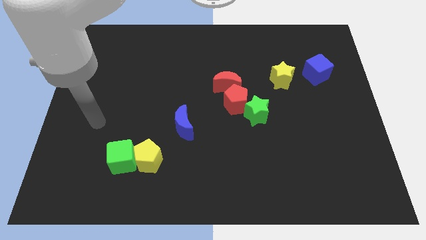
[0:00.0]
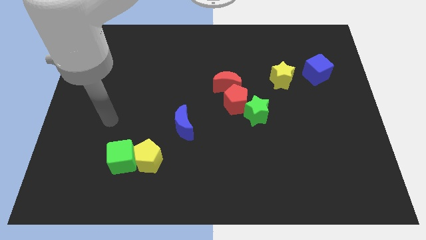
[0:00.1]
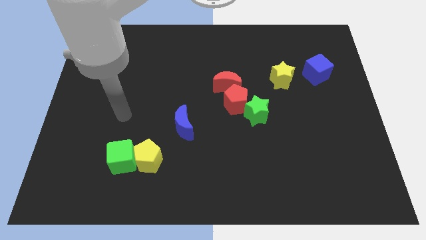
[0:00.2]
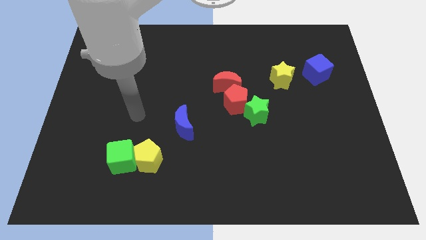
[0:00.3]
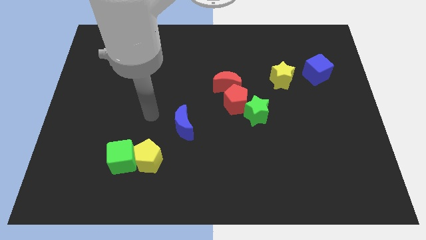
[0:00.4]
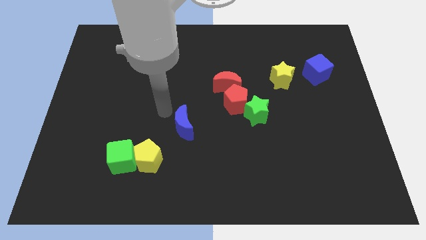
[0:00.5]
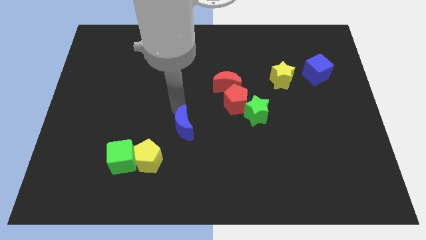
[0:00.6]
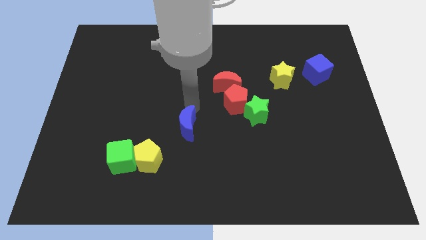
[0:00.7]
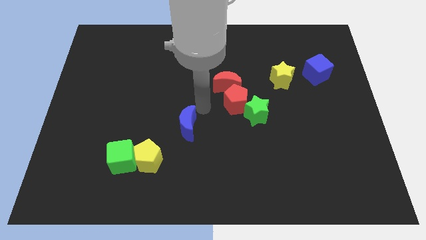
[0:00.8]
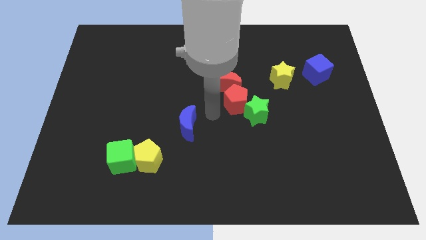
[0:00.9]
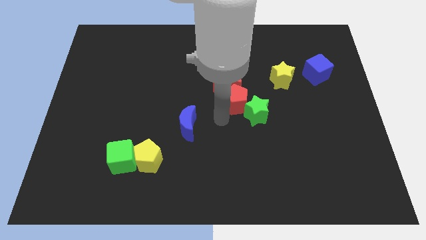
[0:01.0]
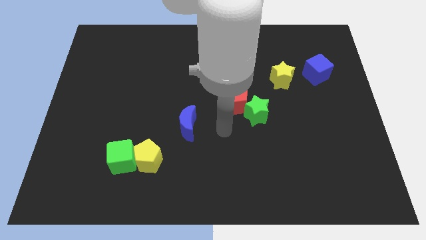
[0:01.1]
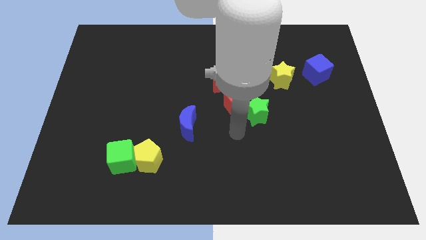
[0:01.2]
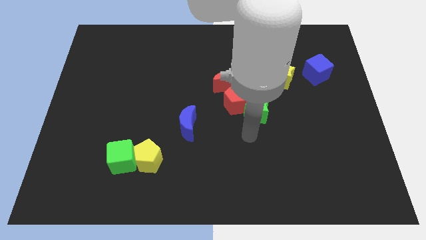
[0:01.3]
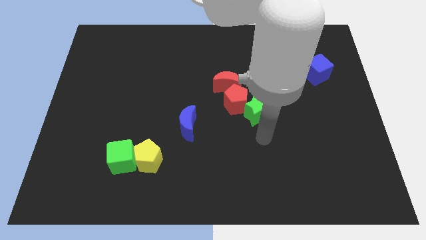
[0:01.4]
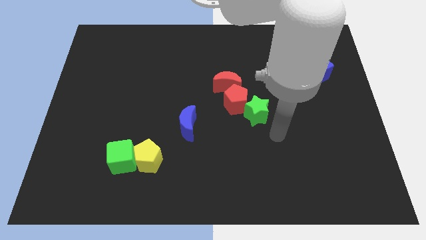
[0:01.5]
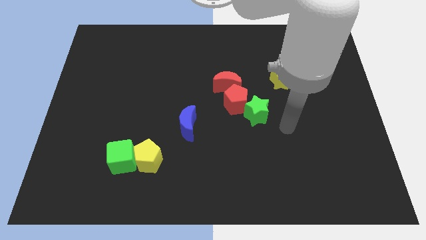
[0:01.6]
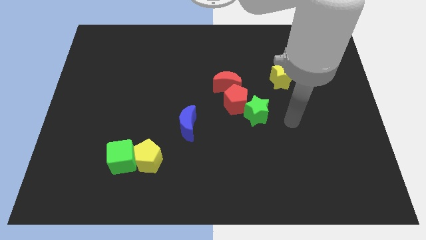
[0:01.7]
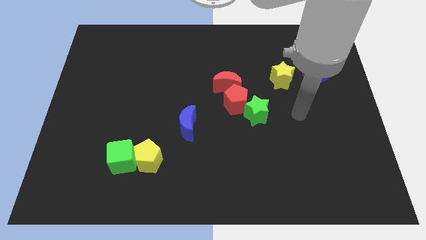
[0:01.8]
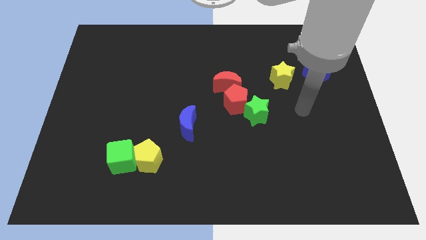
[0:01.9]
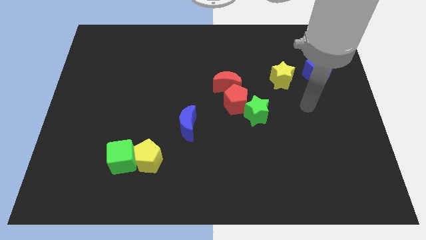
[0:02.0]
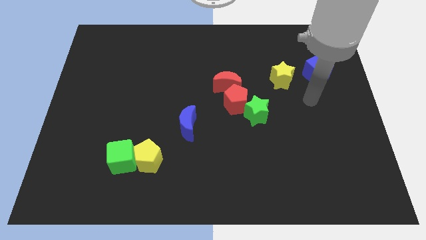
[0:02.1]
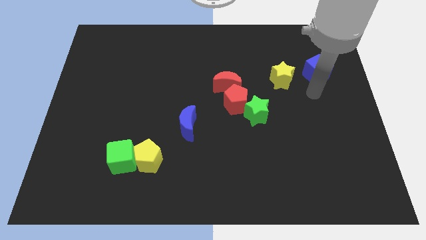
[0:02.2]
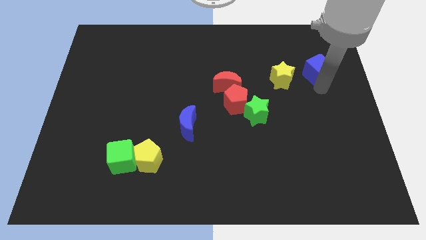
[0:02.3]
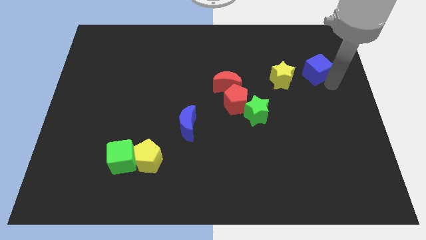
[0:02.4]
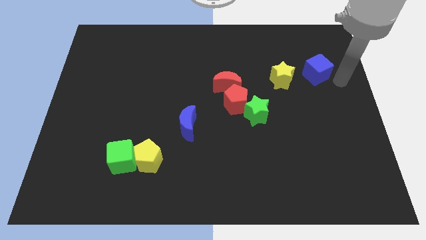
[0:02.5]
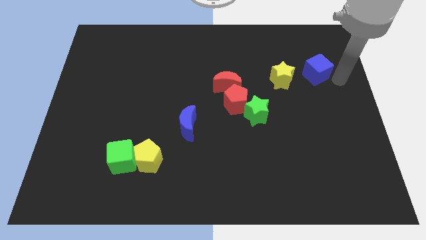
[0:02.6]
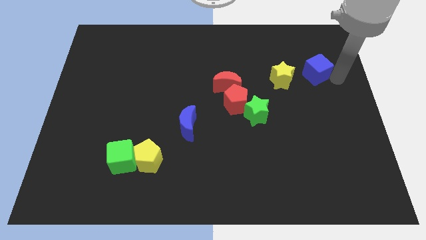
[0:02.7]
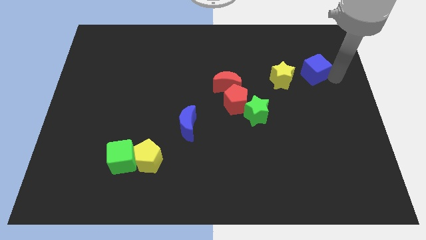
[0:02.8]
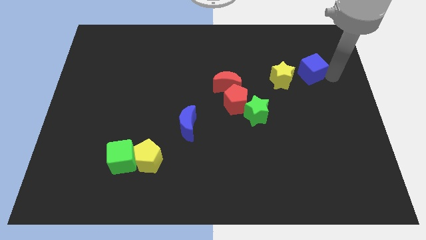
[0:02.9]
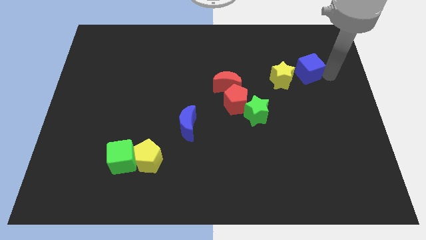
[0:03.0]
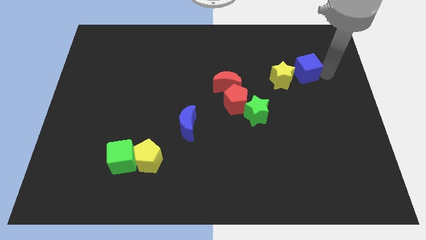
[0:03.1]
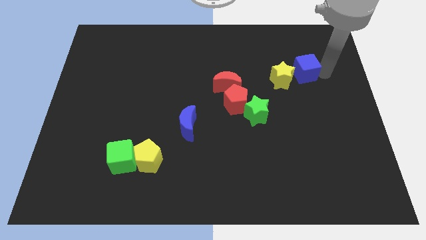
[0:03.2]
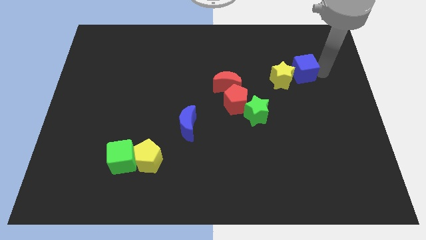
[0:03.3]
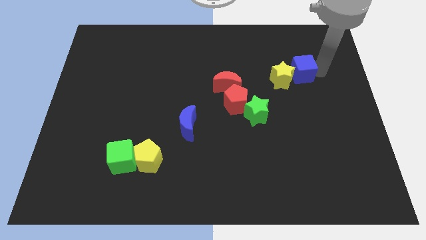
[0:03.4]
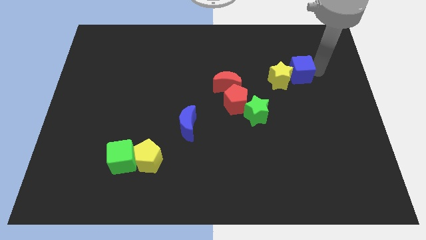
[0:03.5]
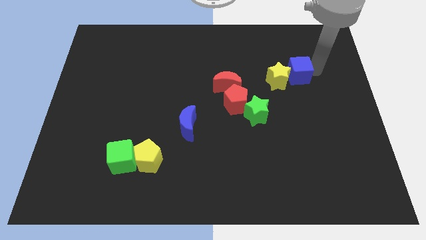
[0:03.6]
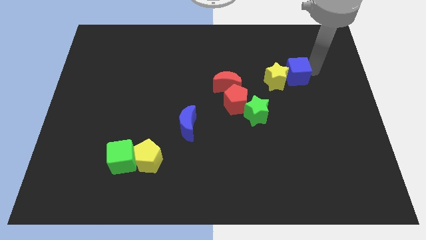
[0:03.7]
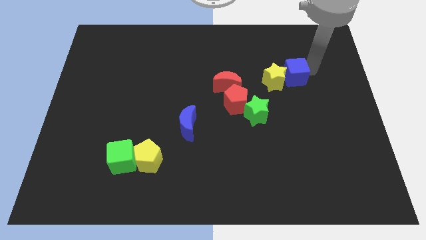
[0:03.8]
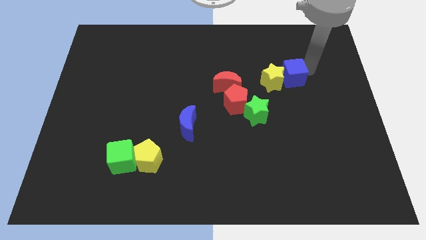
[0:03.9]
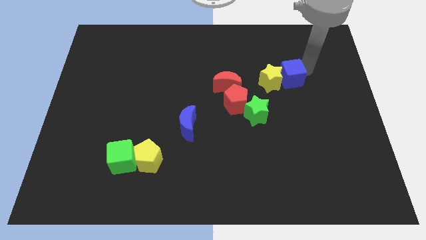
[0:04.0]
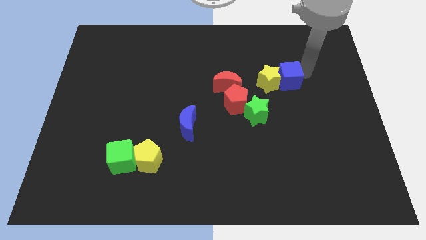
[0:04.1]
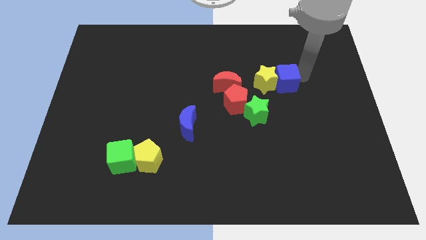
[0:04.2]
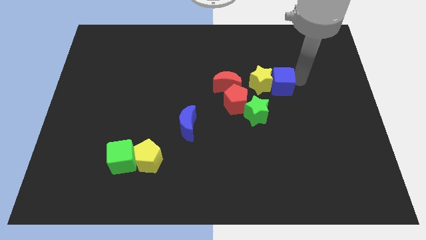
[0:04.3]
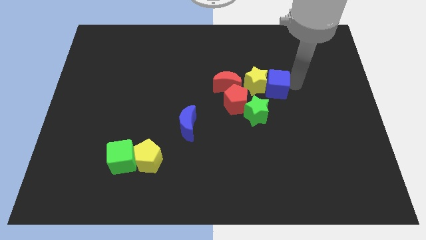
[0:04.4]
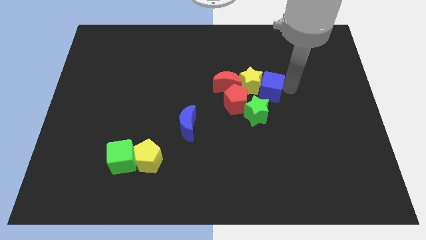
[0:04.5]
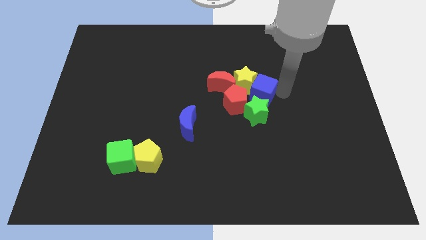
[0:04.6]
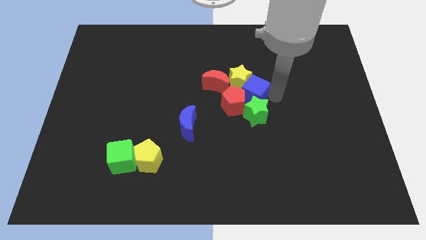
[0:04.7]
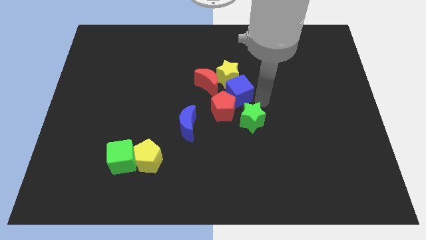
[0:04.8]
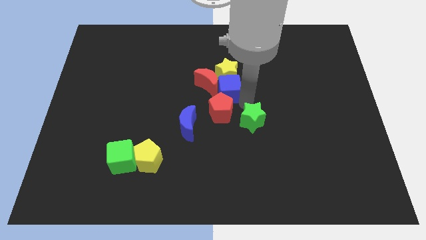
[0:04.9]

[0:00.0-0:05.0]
push the blue cube next to the red moon
